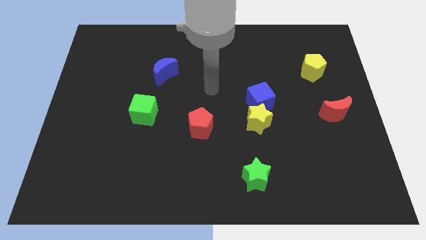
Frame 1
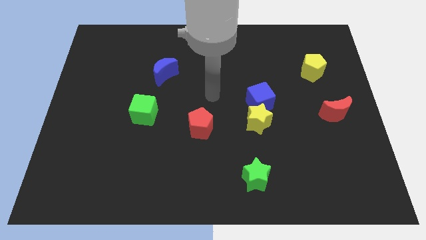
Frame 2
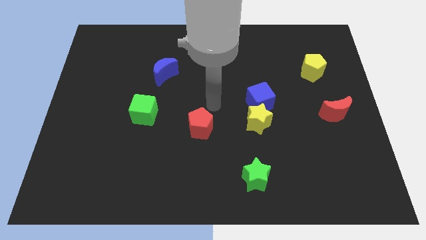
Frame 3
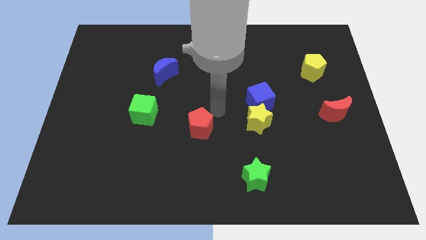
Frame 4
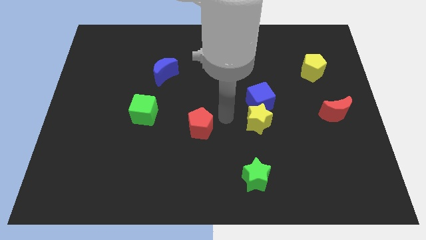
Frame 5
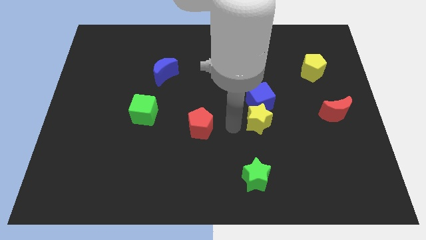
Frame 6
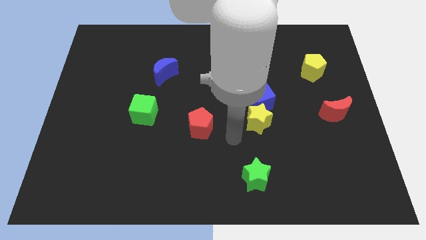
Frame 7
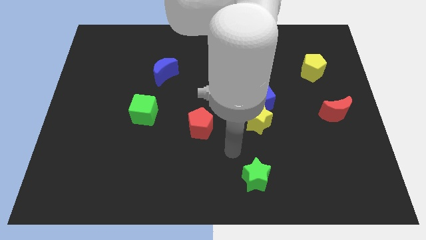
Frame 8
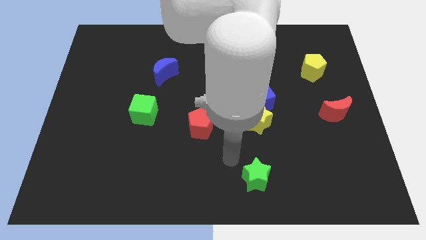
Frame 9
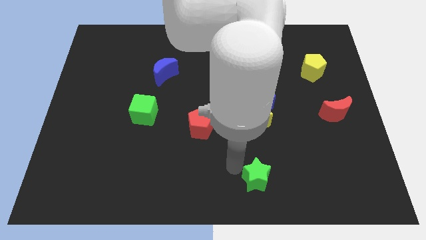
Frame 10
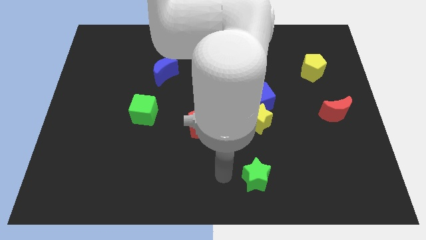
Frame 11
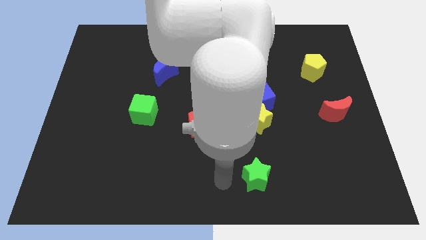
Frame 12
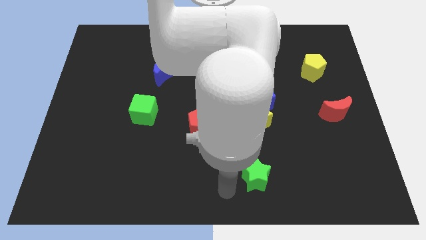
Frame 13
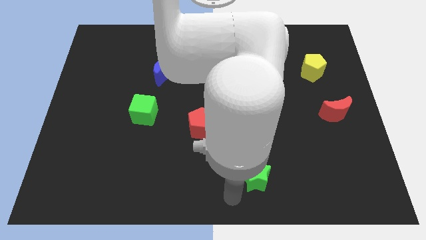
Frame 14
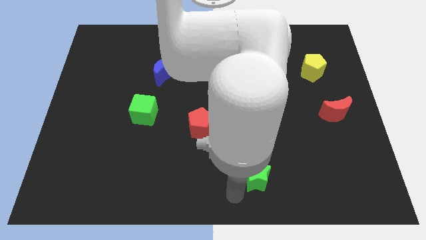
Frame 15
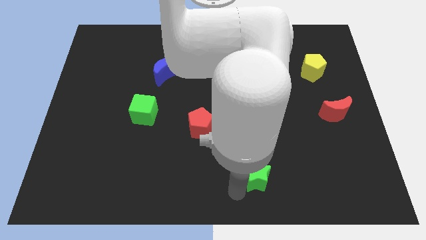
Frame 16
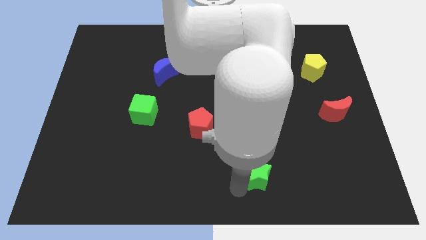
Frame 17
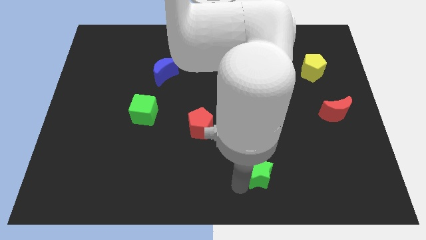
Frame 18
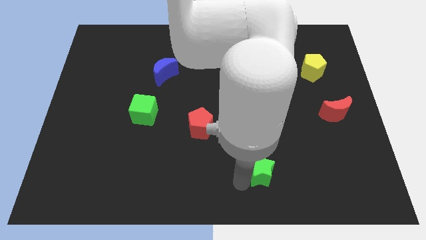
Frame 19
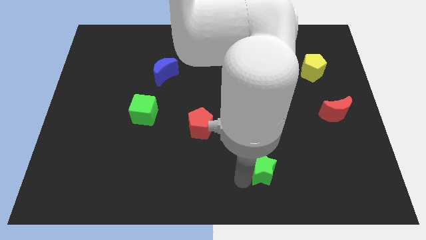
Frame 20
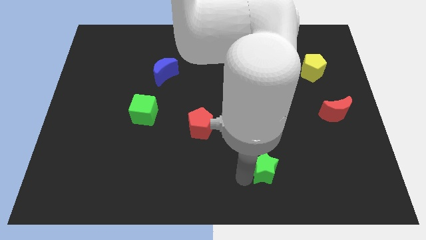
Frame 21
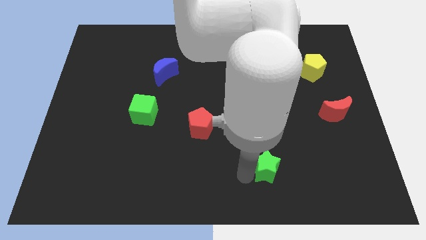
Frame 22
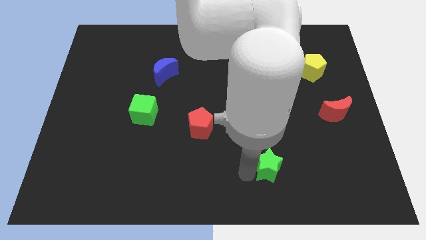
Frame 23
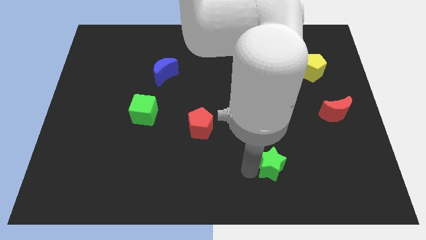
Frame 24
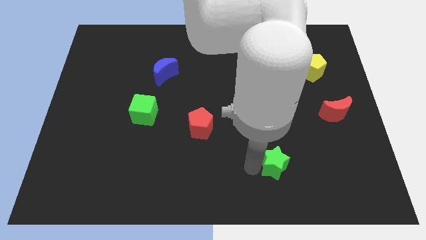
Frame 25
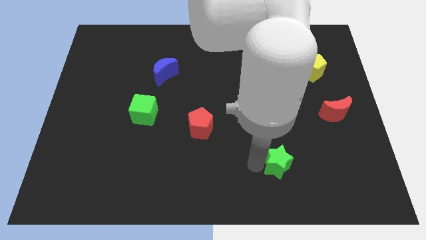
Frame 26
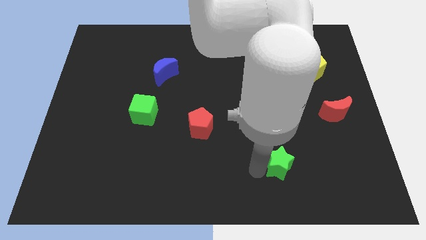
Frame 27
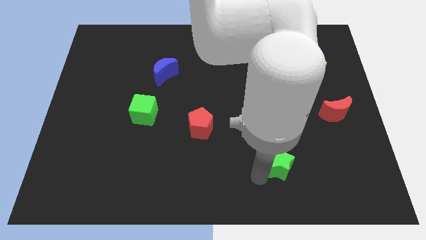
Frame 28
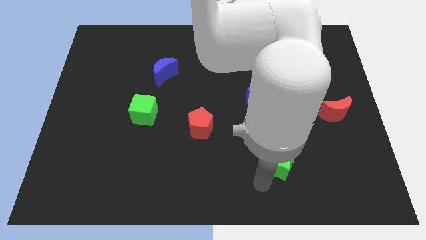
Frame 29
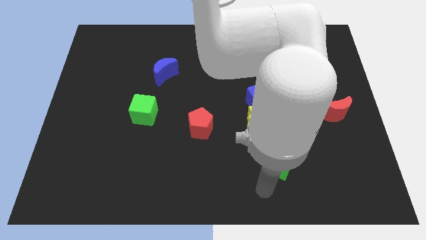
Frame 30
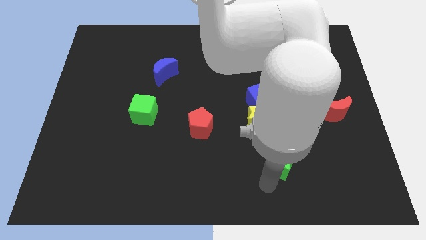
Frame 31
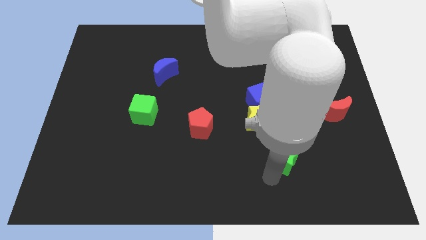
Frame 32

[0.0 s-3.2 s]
slightly move the green star upwards and to the right diagonally

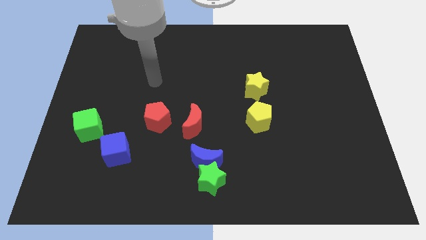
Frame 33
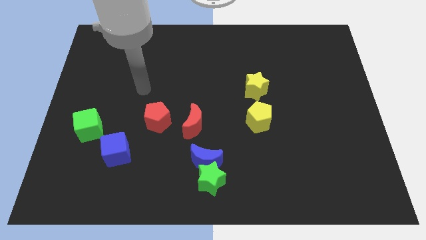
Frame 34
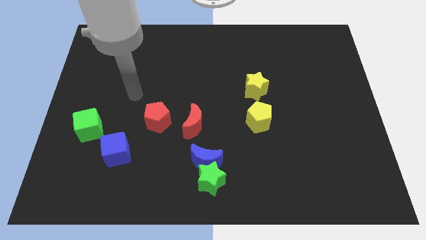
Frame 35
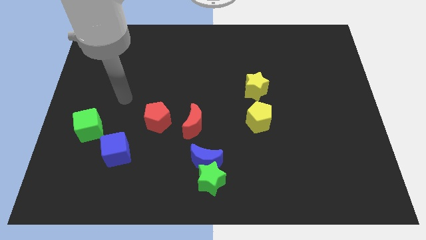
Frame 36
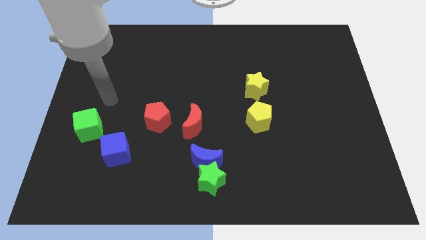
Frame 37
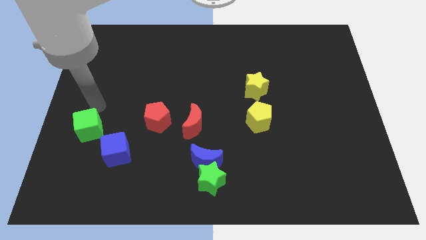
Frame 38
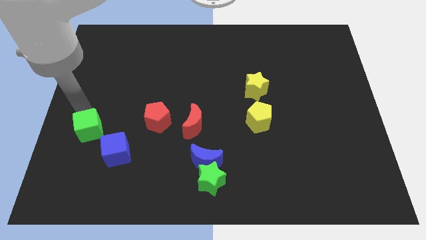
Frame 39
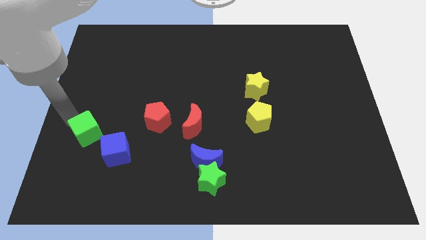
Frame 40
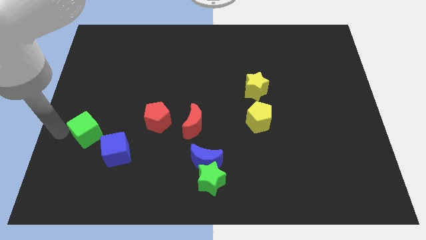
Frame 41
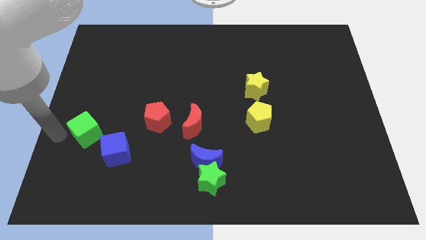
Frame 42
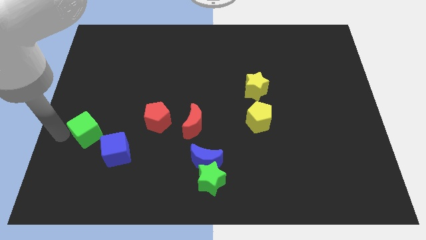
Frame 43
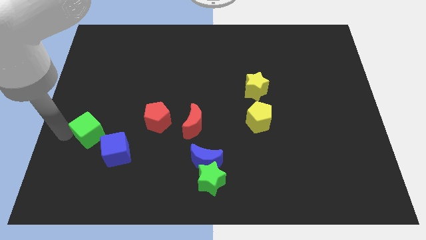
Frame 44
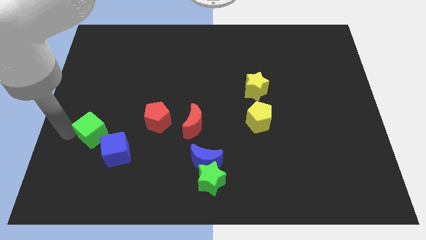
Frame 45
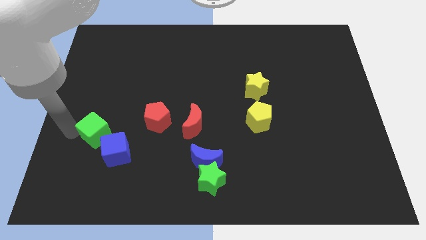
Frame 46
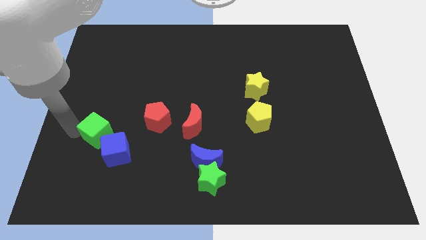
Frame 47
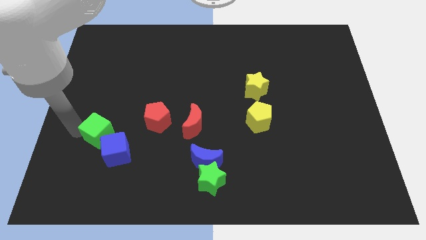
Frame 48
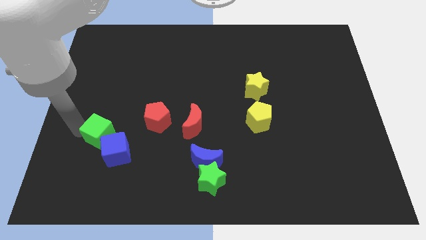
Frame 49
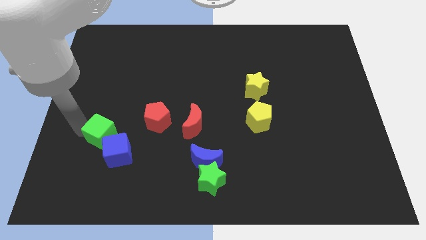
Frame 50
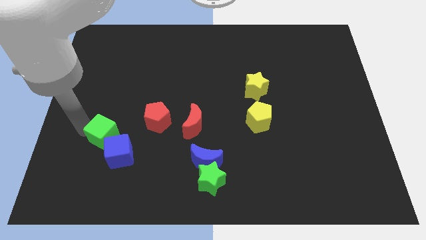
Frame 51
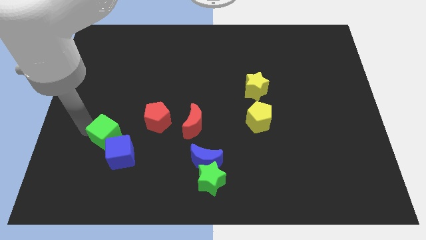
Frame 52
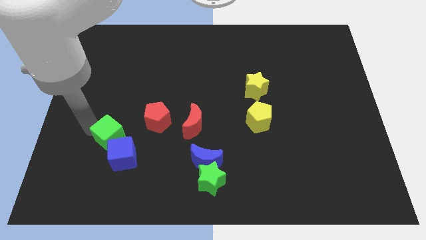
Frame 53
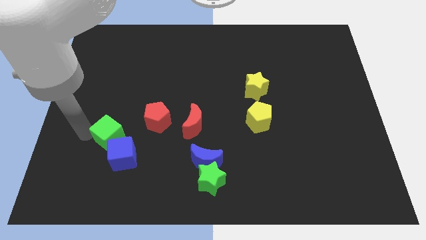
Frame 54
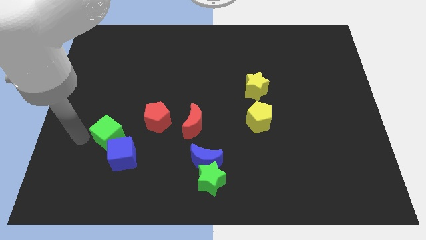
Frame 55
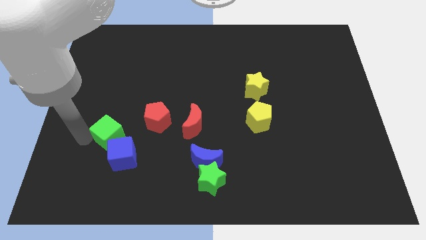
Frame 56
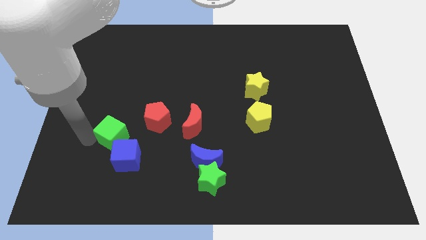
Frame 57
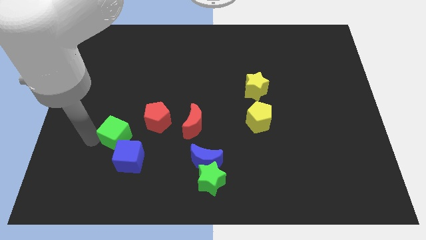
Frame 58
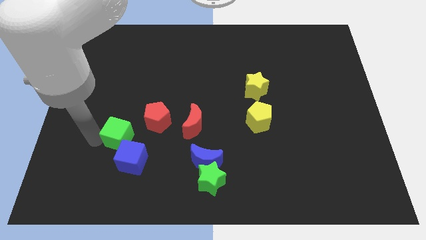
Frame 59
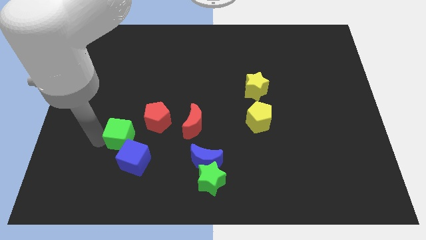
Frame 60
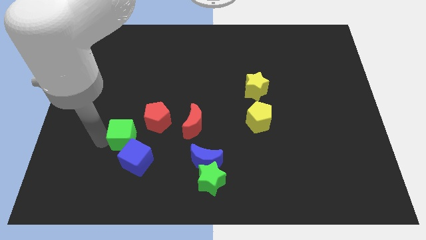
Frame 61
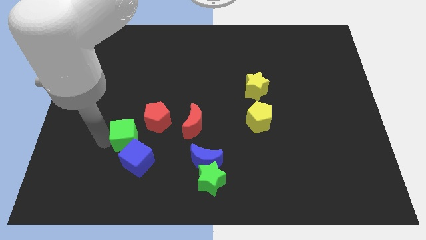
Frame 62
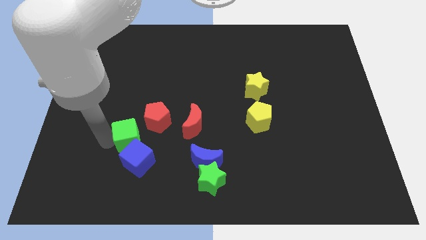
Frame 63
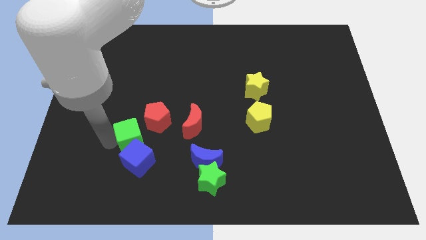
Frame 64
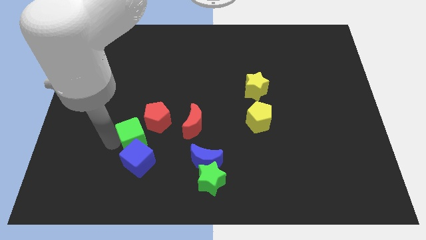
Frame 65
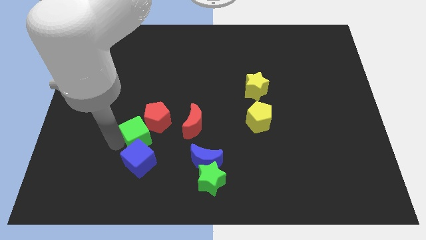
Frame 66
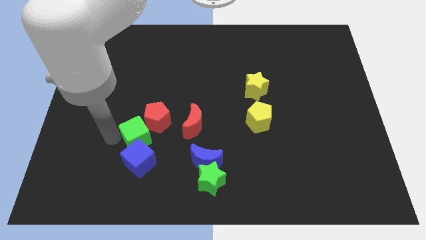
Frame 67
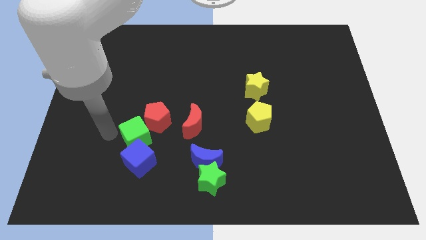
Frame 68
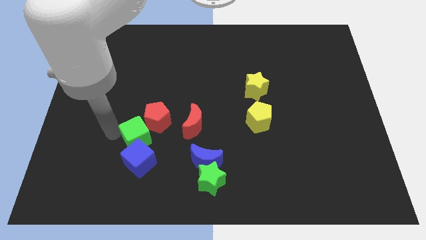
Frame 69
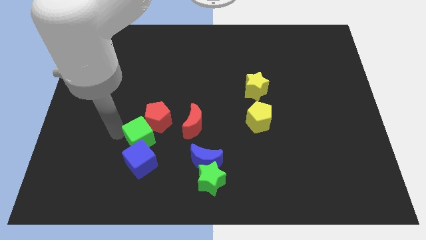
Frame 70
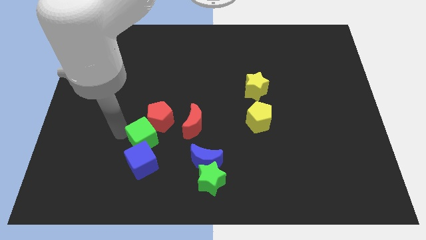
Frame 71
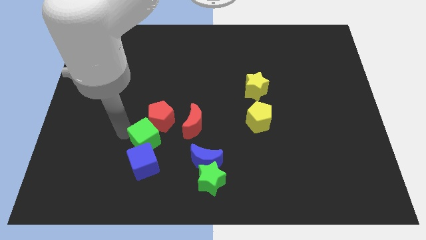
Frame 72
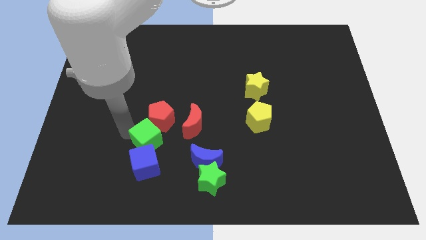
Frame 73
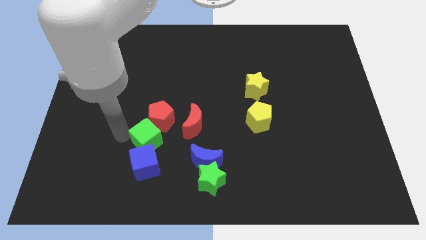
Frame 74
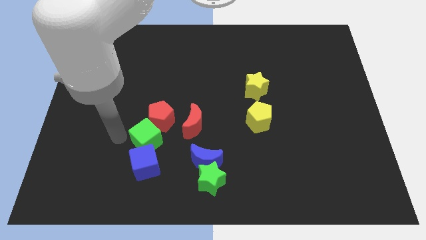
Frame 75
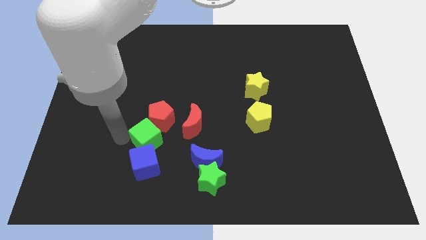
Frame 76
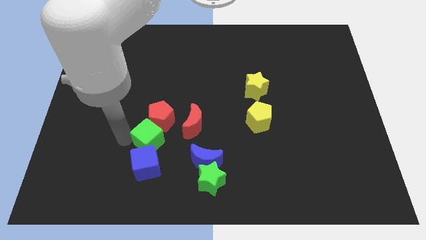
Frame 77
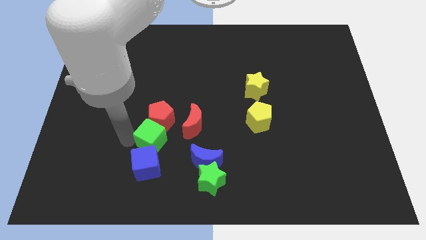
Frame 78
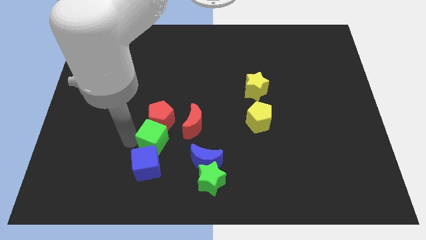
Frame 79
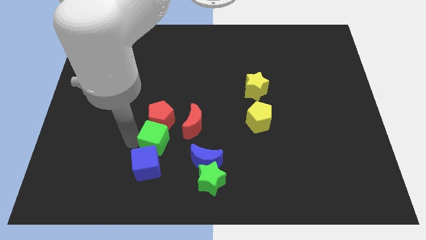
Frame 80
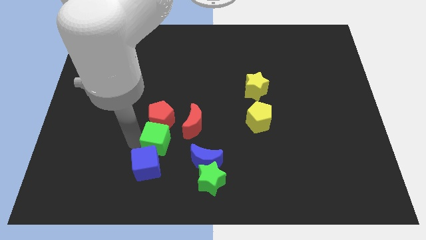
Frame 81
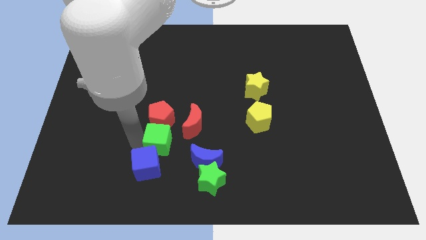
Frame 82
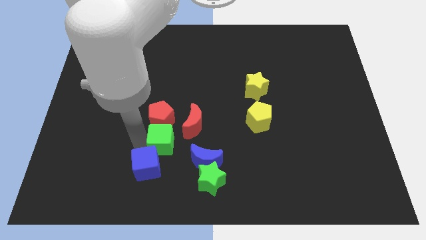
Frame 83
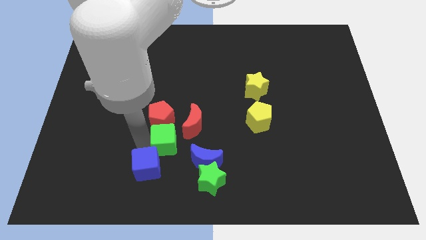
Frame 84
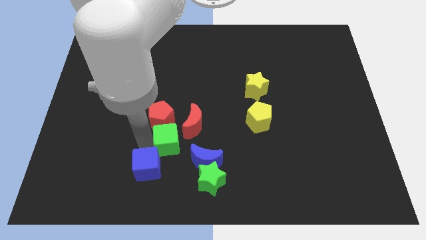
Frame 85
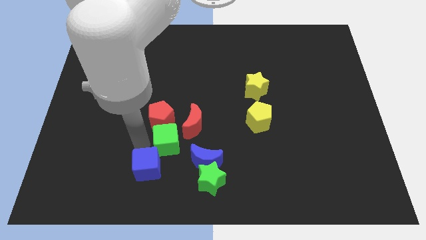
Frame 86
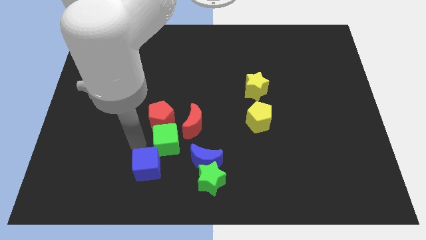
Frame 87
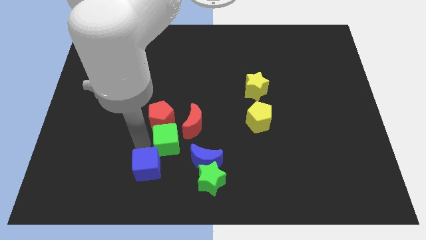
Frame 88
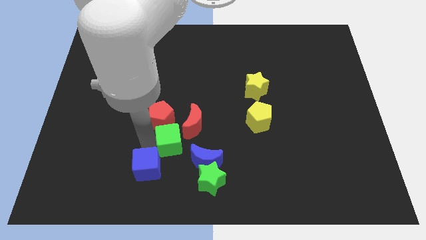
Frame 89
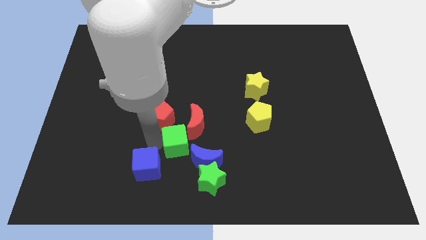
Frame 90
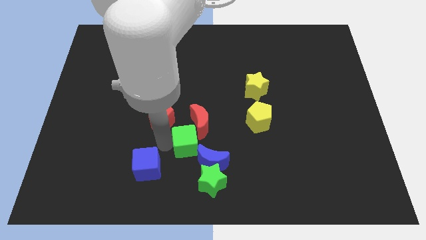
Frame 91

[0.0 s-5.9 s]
move the green cube right
